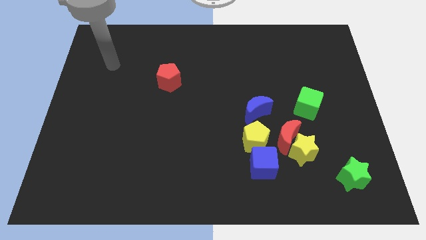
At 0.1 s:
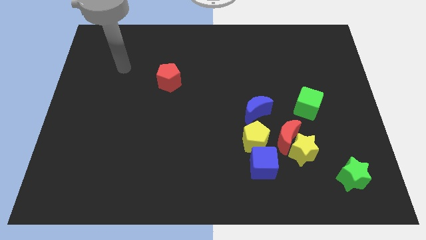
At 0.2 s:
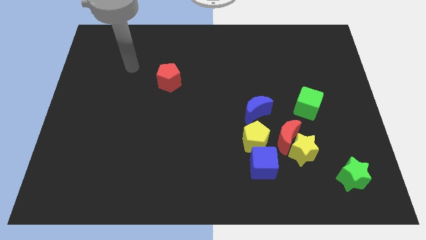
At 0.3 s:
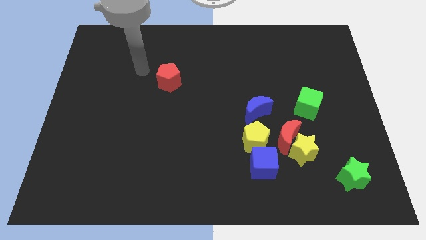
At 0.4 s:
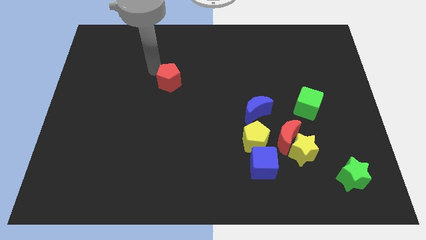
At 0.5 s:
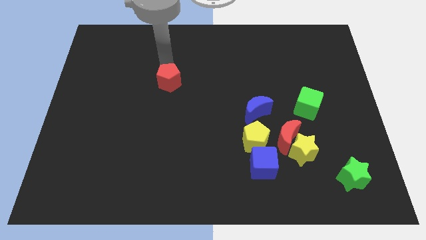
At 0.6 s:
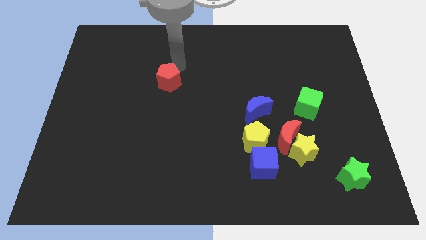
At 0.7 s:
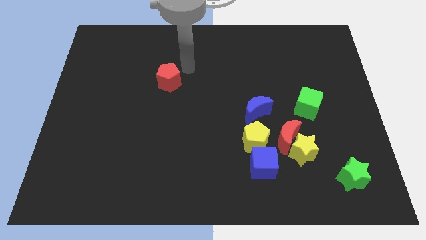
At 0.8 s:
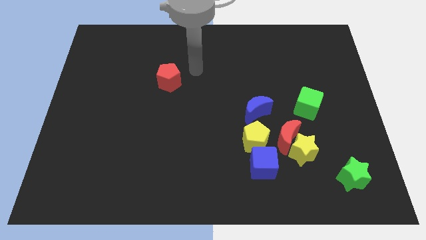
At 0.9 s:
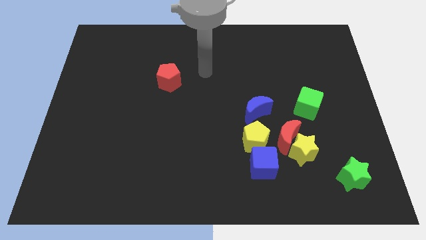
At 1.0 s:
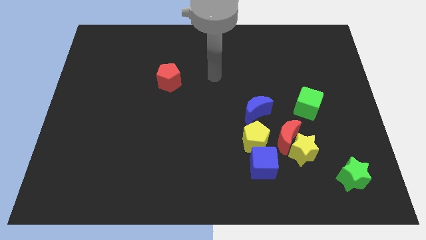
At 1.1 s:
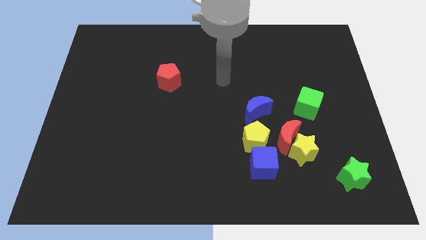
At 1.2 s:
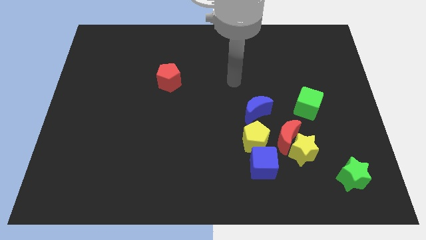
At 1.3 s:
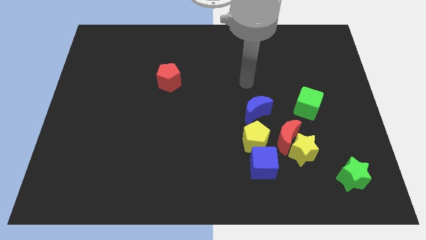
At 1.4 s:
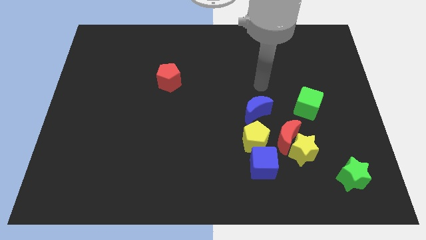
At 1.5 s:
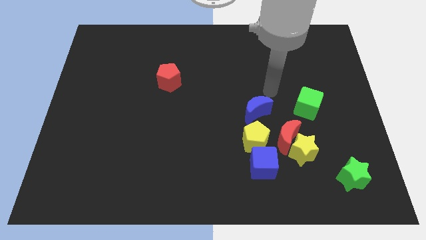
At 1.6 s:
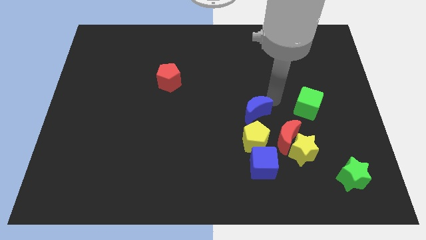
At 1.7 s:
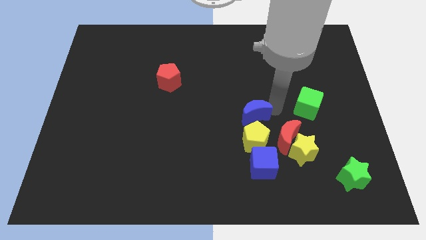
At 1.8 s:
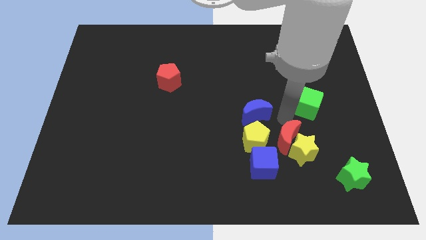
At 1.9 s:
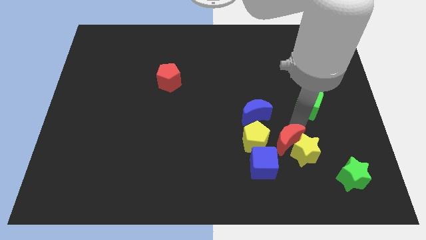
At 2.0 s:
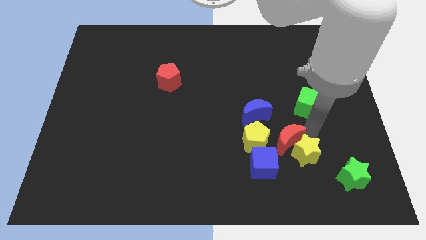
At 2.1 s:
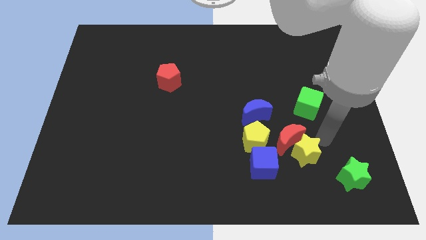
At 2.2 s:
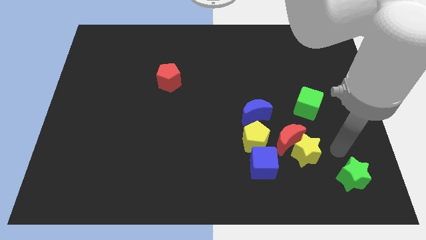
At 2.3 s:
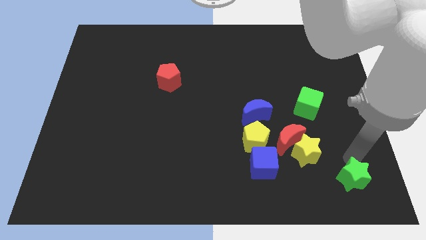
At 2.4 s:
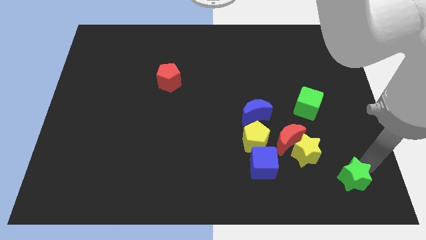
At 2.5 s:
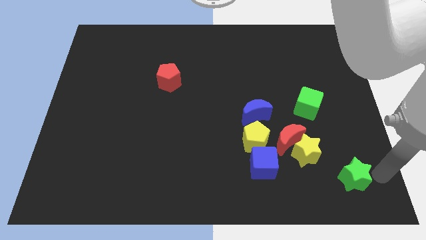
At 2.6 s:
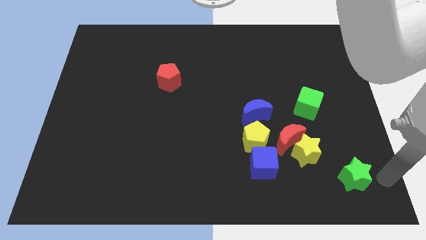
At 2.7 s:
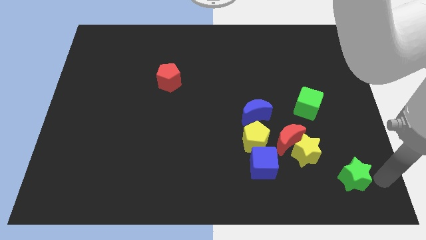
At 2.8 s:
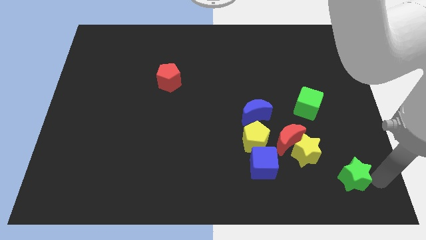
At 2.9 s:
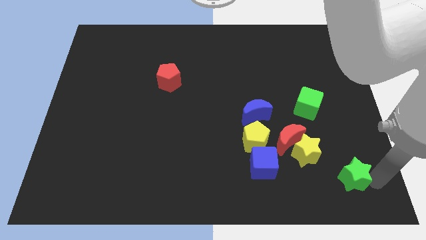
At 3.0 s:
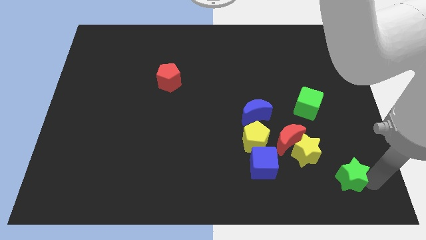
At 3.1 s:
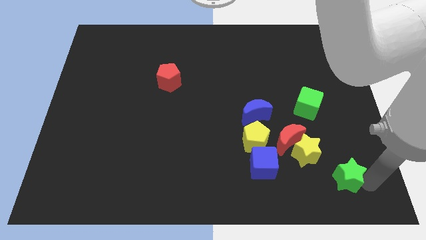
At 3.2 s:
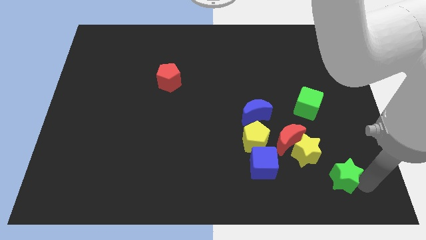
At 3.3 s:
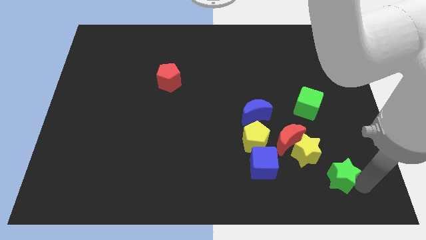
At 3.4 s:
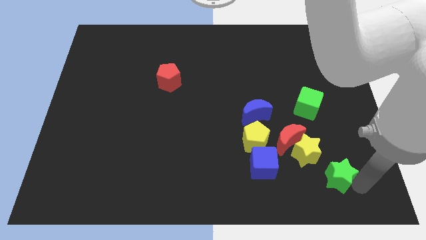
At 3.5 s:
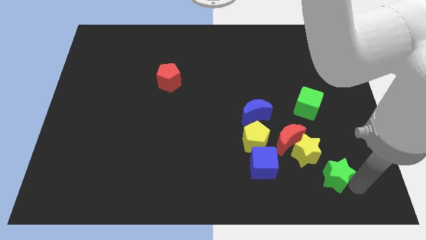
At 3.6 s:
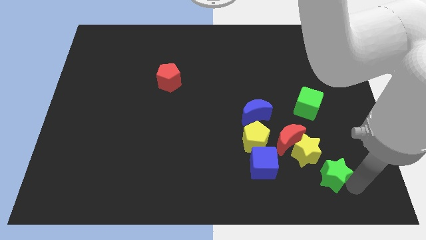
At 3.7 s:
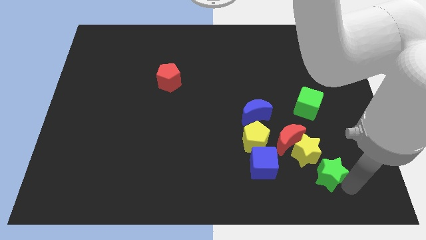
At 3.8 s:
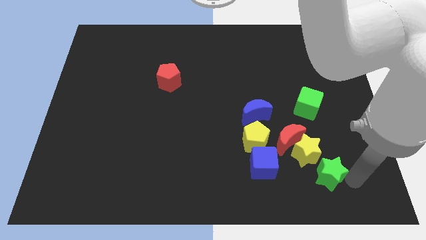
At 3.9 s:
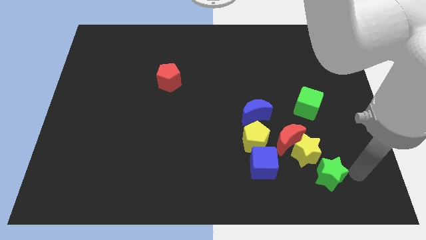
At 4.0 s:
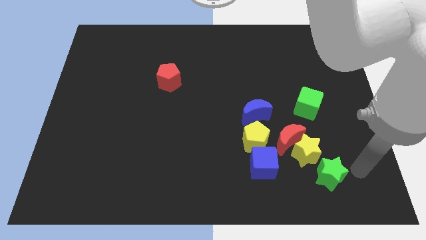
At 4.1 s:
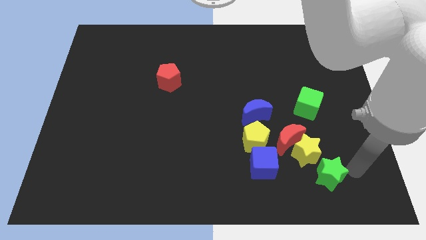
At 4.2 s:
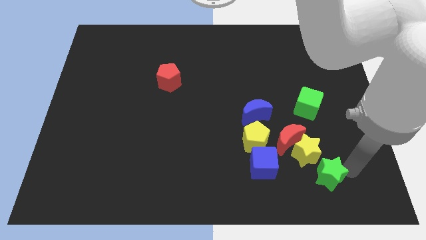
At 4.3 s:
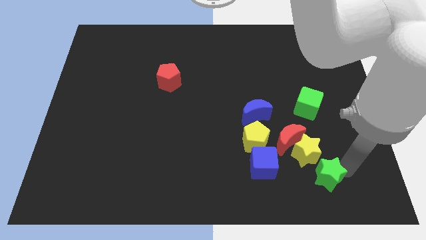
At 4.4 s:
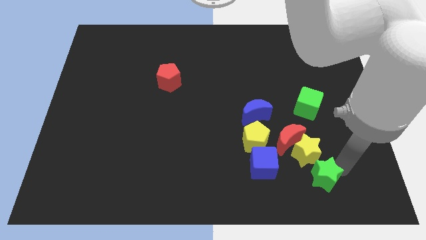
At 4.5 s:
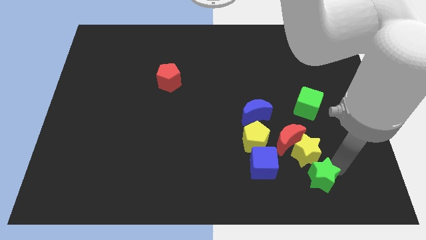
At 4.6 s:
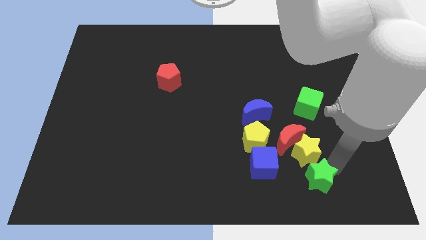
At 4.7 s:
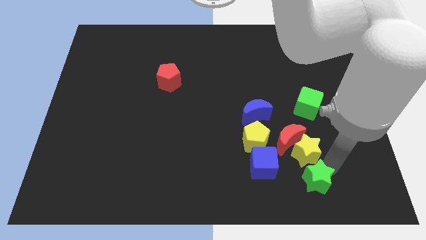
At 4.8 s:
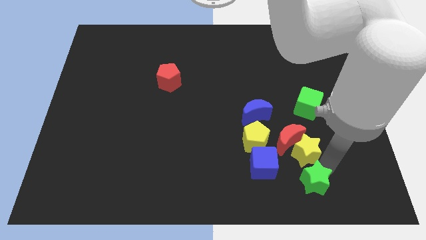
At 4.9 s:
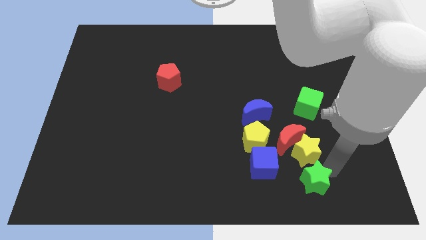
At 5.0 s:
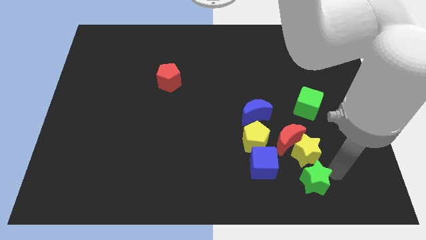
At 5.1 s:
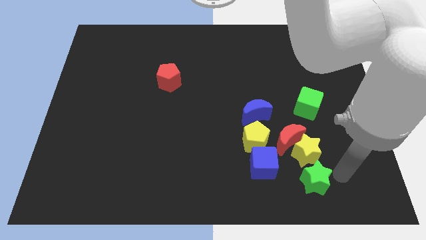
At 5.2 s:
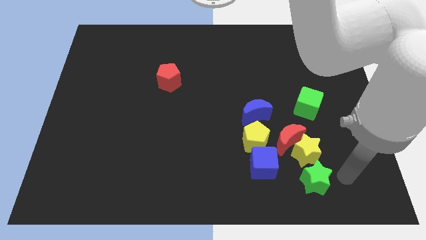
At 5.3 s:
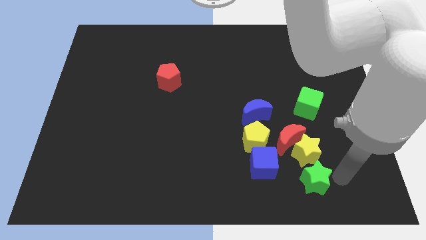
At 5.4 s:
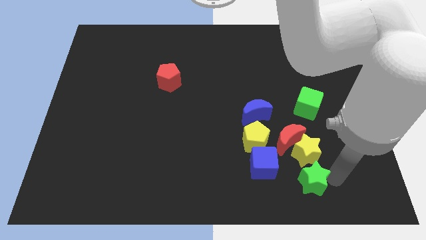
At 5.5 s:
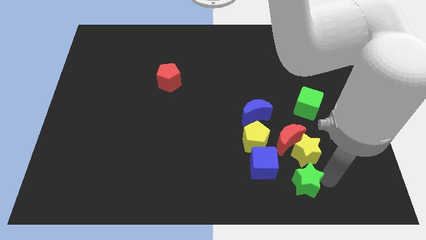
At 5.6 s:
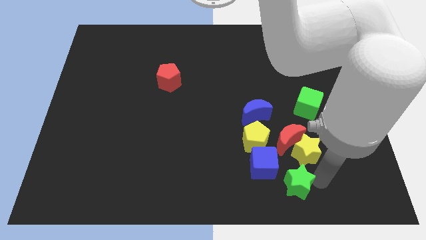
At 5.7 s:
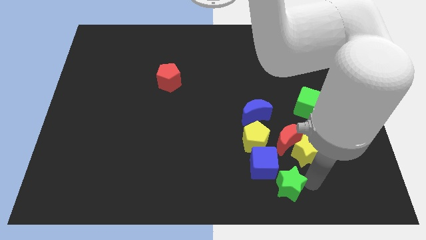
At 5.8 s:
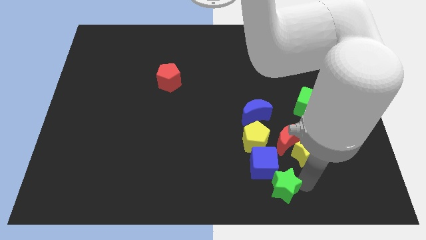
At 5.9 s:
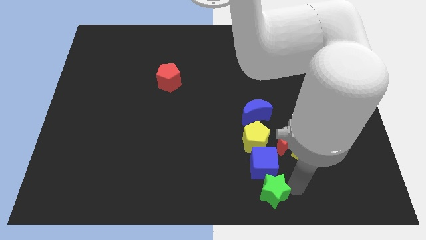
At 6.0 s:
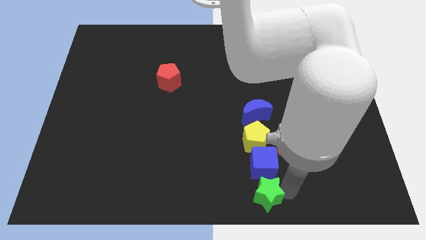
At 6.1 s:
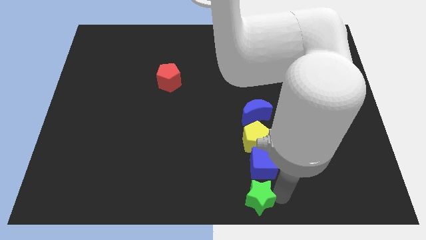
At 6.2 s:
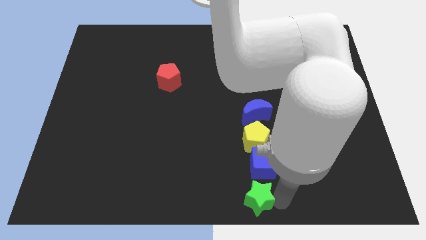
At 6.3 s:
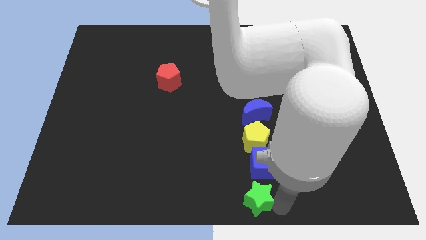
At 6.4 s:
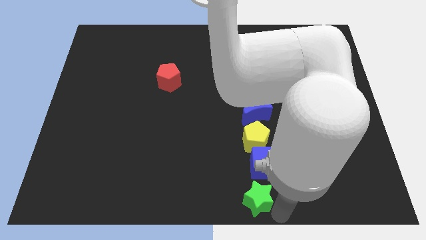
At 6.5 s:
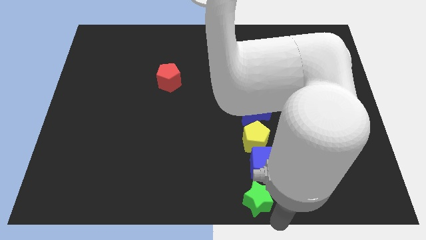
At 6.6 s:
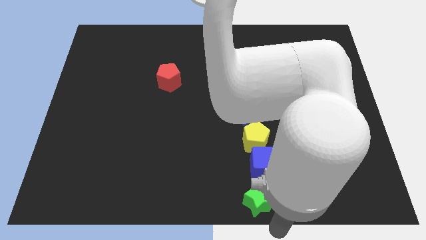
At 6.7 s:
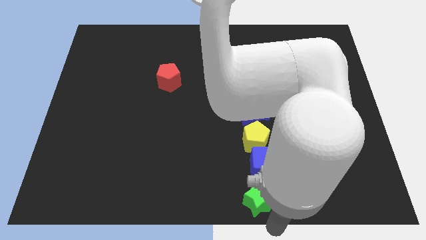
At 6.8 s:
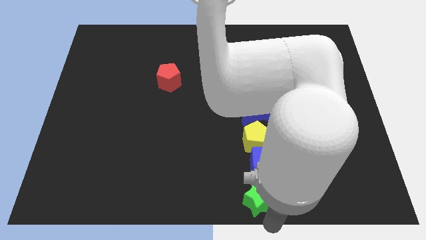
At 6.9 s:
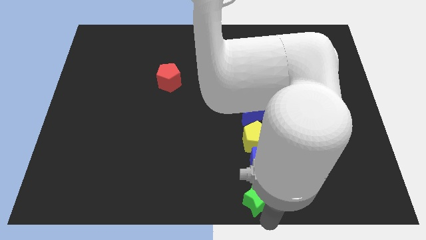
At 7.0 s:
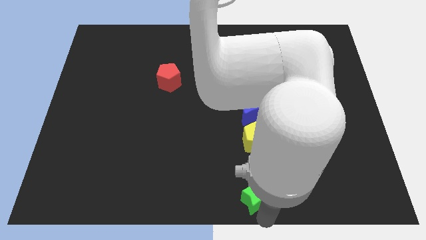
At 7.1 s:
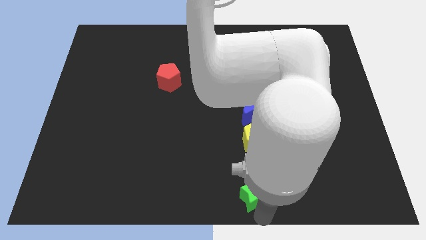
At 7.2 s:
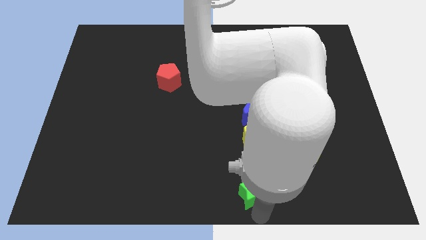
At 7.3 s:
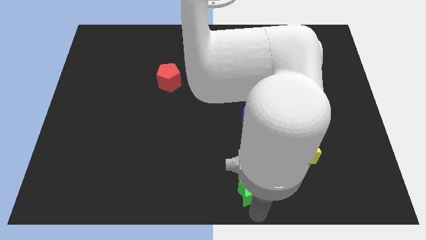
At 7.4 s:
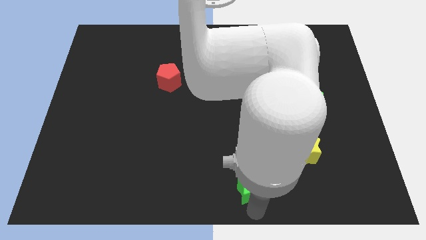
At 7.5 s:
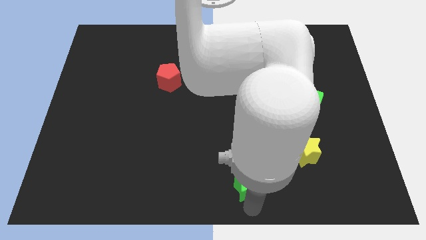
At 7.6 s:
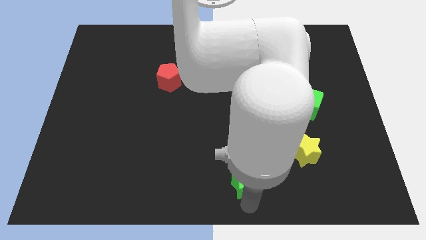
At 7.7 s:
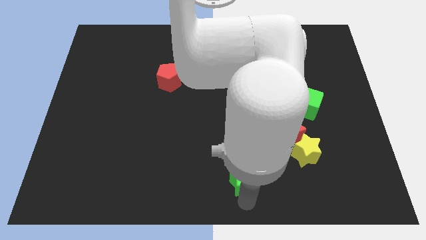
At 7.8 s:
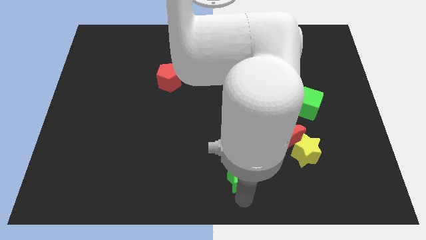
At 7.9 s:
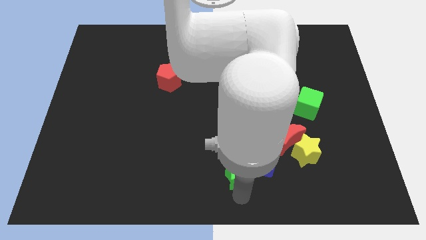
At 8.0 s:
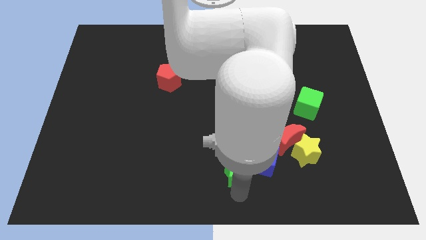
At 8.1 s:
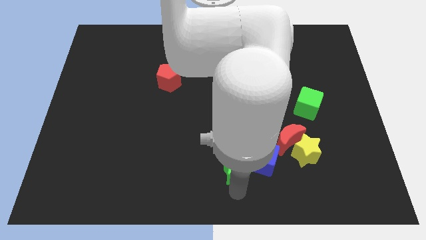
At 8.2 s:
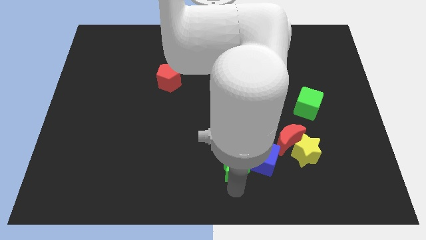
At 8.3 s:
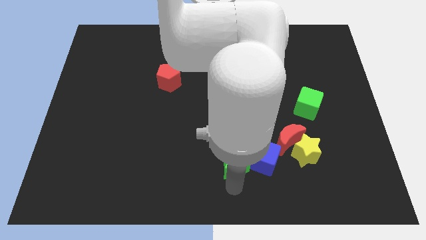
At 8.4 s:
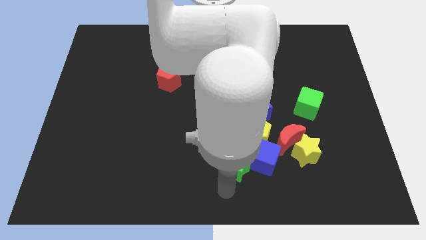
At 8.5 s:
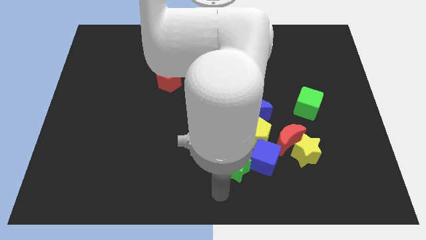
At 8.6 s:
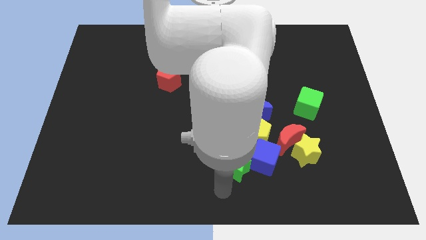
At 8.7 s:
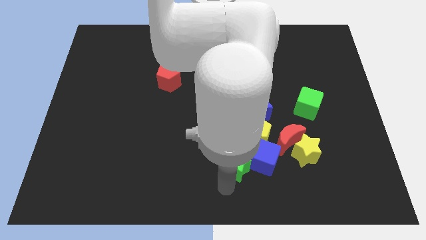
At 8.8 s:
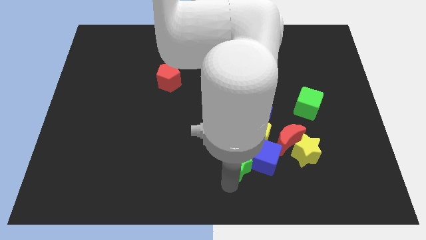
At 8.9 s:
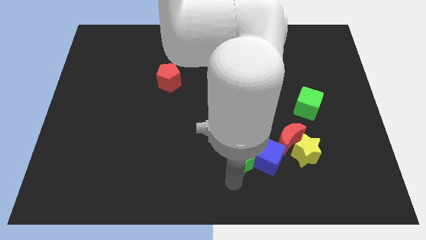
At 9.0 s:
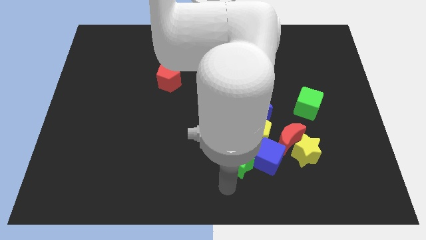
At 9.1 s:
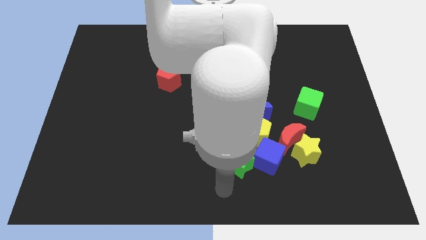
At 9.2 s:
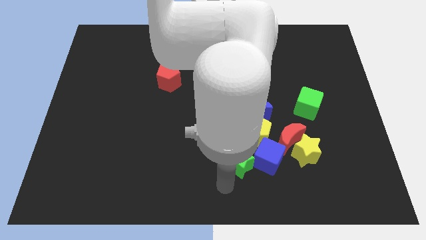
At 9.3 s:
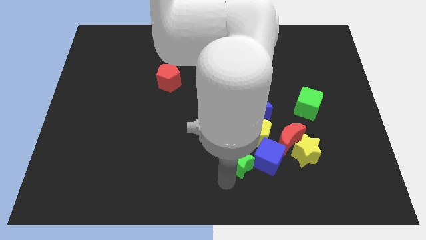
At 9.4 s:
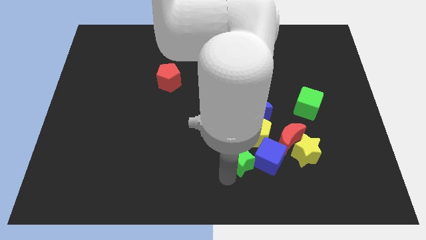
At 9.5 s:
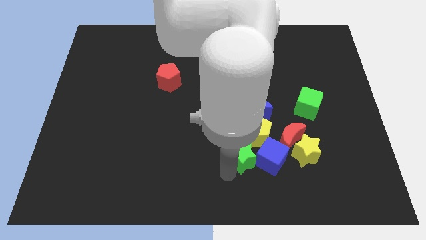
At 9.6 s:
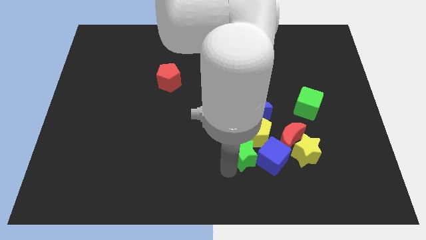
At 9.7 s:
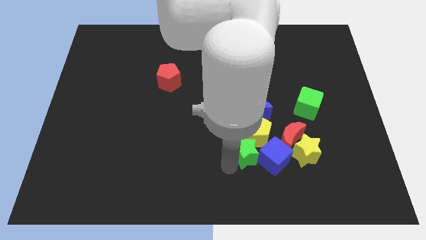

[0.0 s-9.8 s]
put the green star to the yellow pentagon
